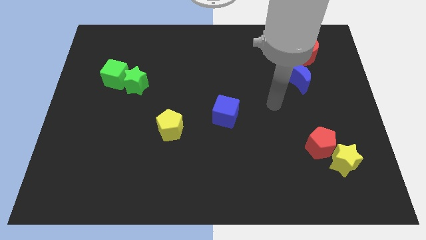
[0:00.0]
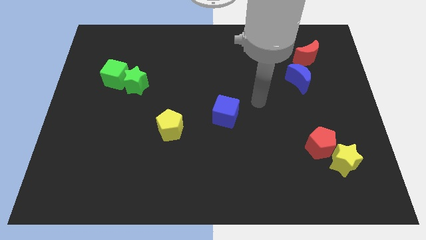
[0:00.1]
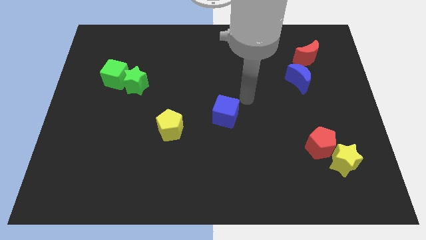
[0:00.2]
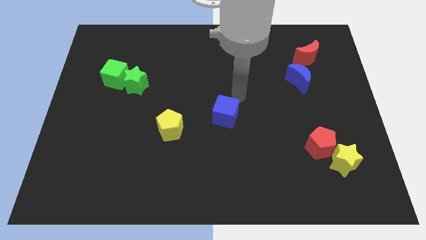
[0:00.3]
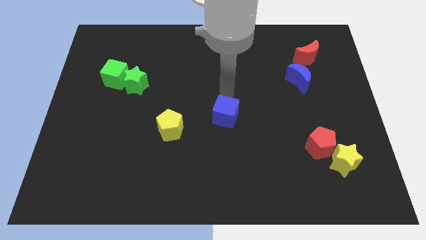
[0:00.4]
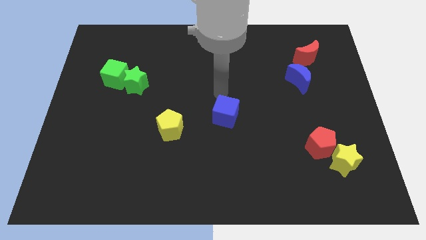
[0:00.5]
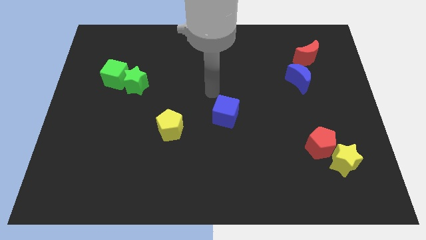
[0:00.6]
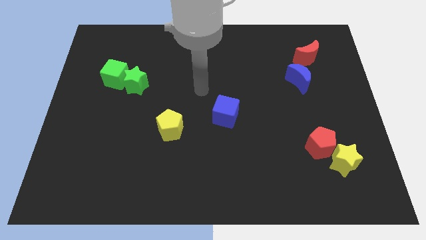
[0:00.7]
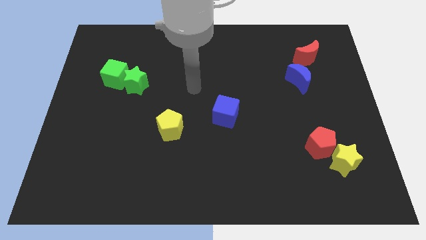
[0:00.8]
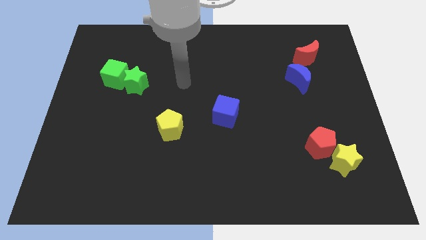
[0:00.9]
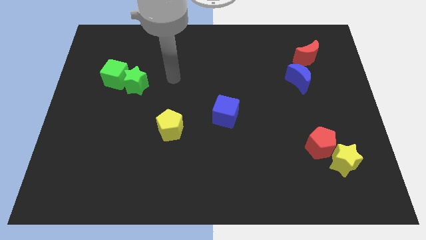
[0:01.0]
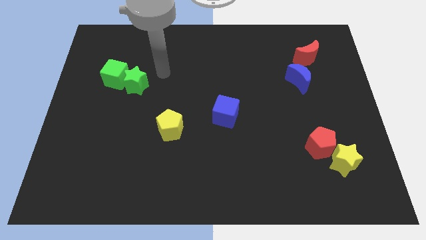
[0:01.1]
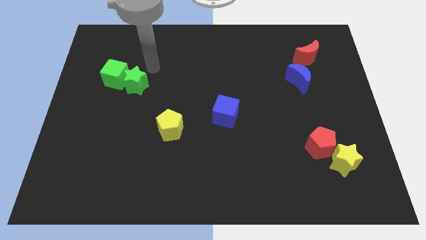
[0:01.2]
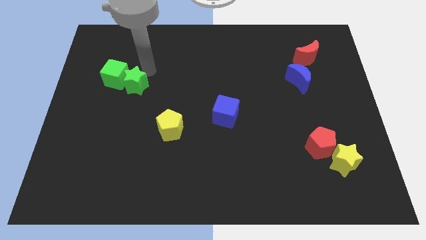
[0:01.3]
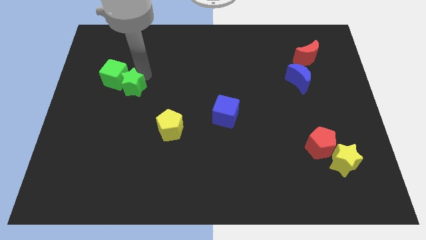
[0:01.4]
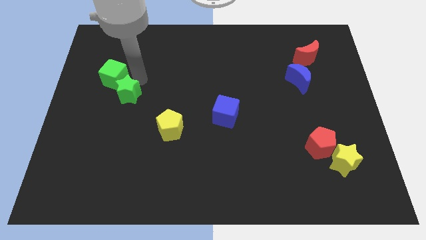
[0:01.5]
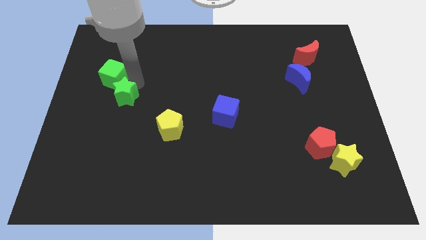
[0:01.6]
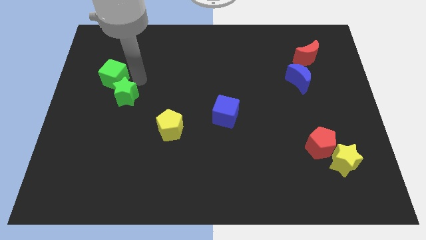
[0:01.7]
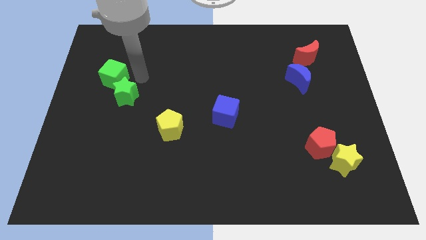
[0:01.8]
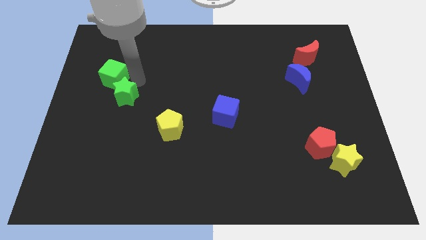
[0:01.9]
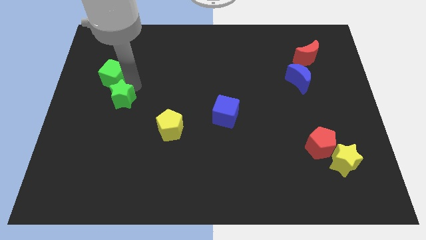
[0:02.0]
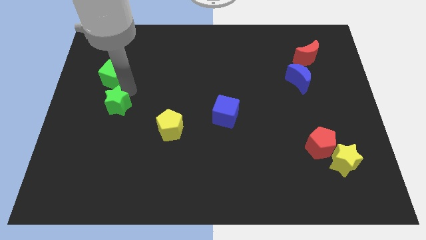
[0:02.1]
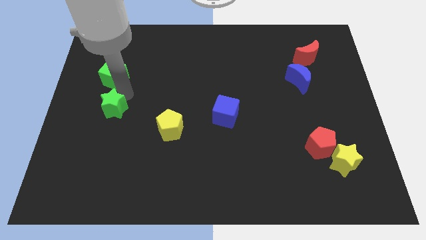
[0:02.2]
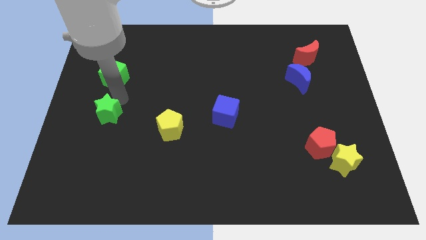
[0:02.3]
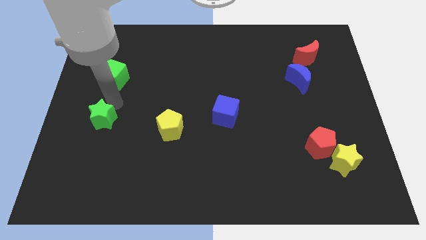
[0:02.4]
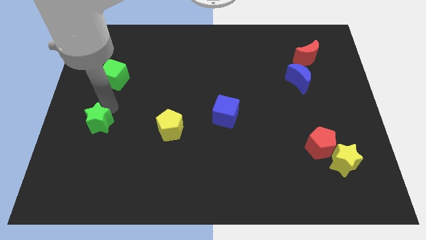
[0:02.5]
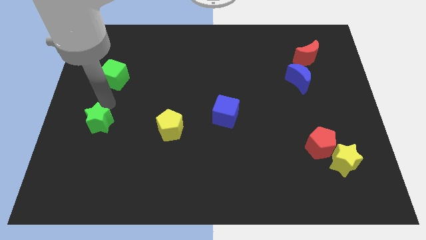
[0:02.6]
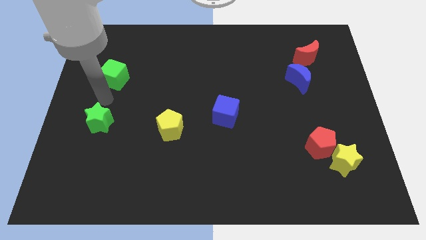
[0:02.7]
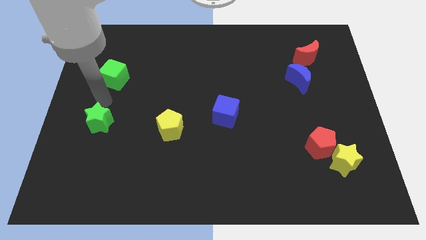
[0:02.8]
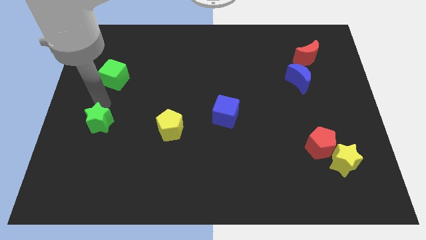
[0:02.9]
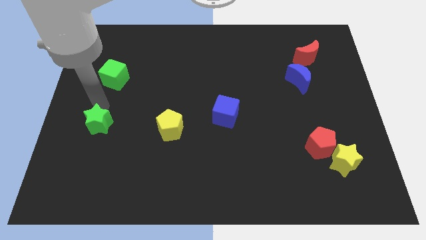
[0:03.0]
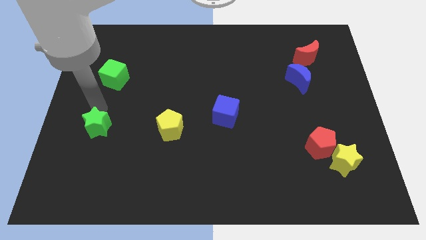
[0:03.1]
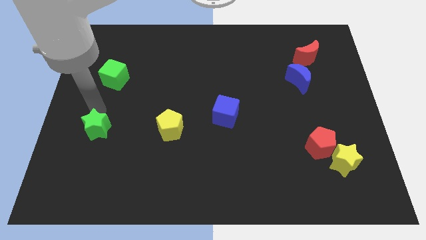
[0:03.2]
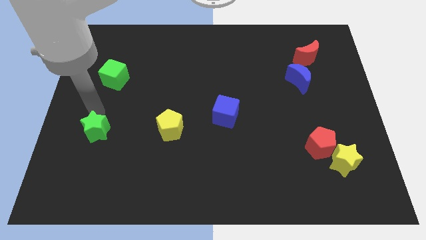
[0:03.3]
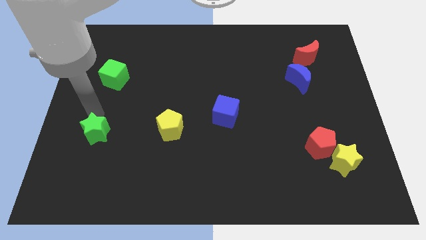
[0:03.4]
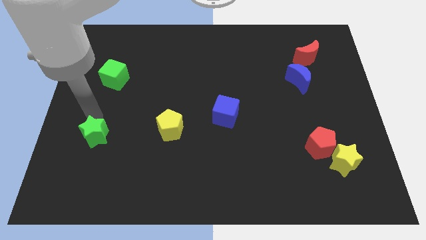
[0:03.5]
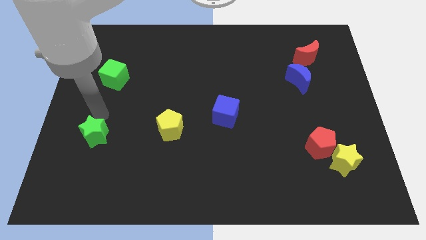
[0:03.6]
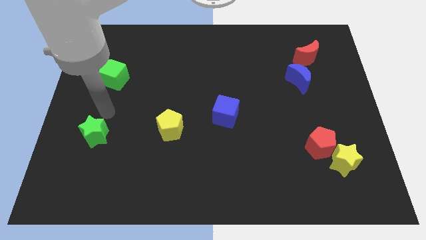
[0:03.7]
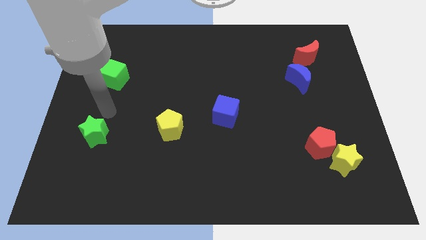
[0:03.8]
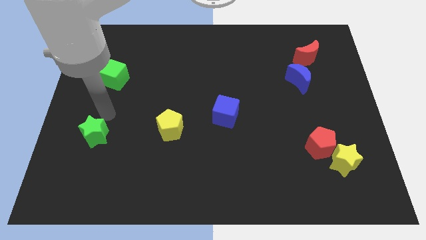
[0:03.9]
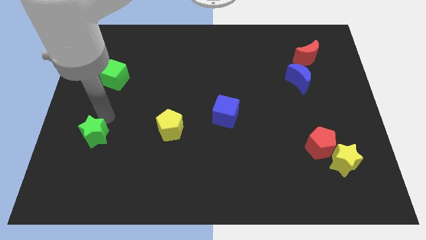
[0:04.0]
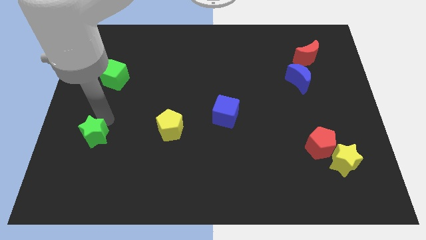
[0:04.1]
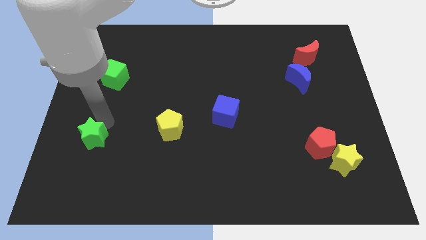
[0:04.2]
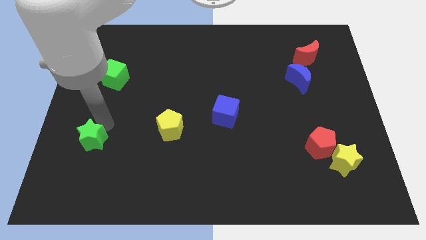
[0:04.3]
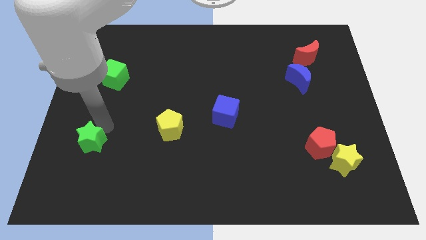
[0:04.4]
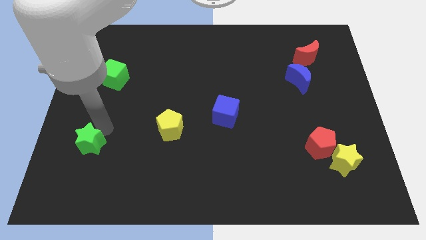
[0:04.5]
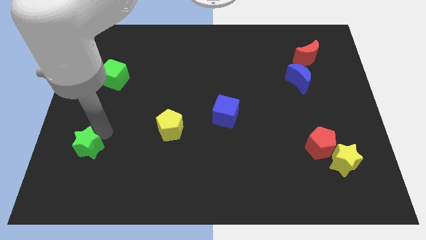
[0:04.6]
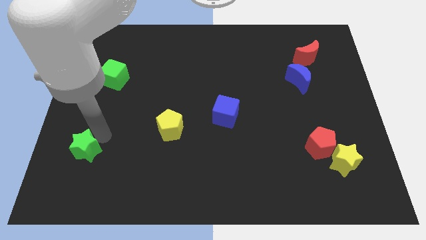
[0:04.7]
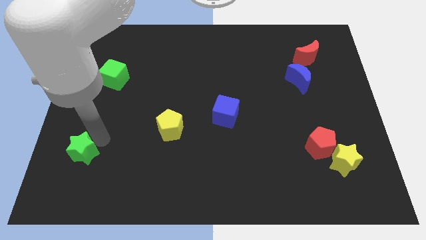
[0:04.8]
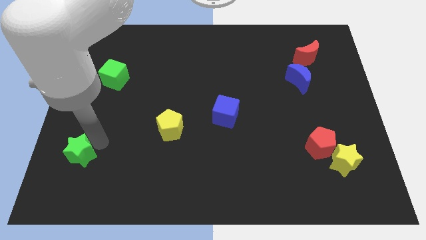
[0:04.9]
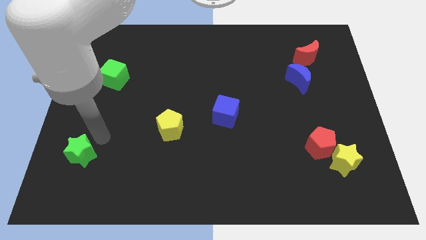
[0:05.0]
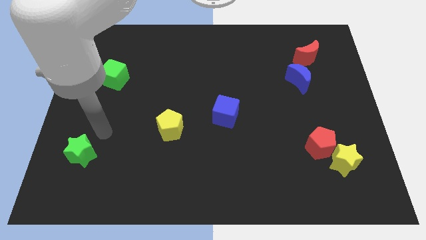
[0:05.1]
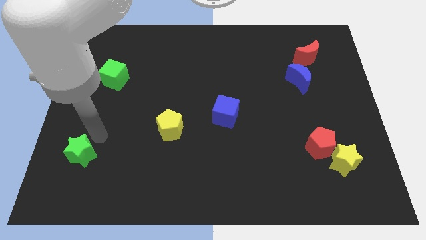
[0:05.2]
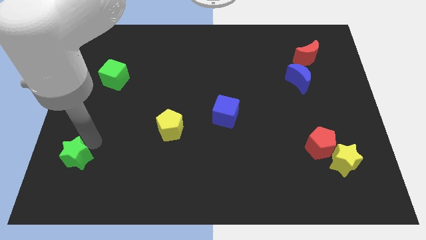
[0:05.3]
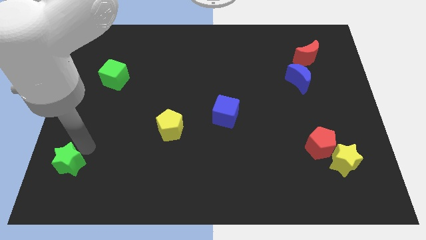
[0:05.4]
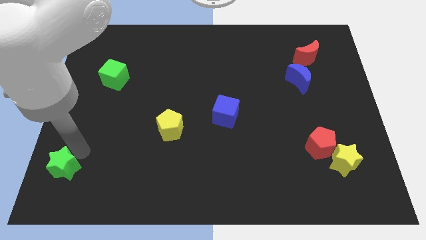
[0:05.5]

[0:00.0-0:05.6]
push the green star to the bottom left of the board

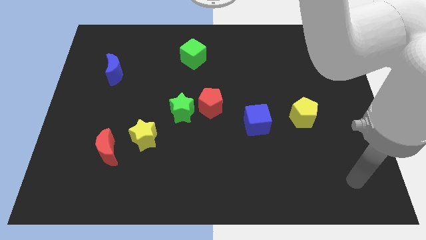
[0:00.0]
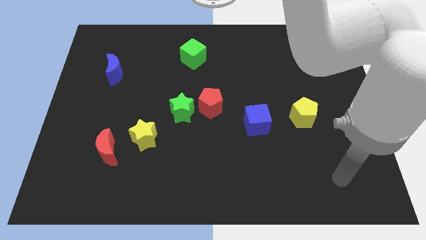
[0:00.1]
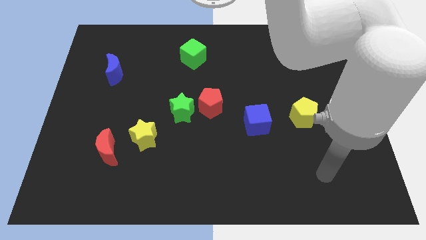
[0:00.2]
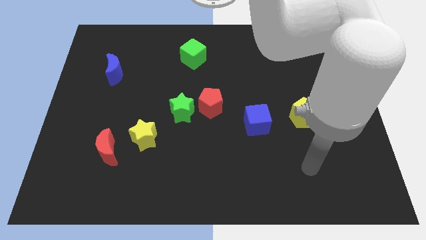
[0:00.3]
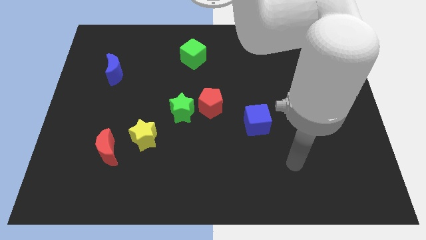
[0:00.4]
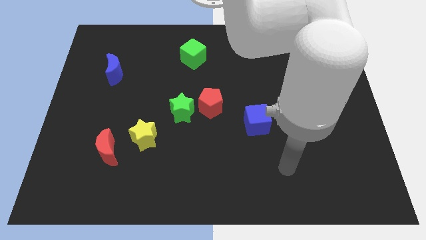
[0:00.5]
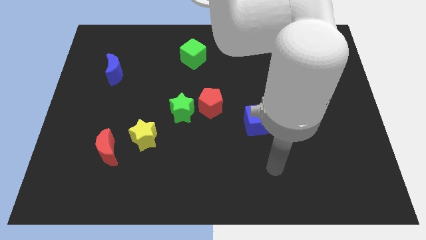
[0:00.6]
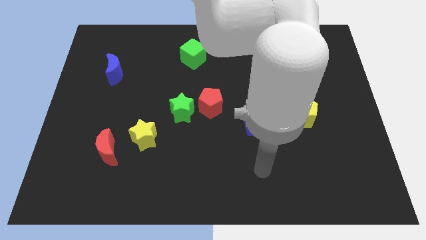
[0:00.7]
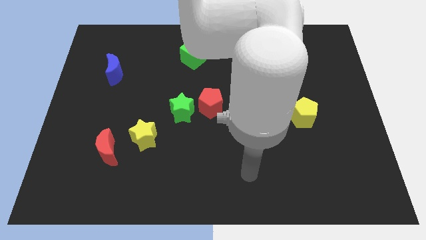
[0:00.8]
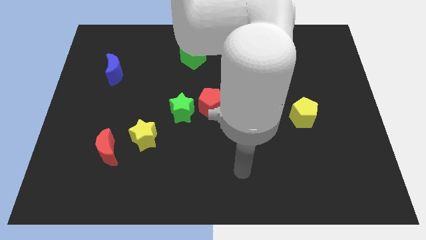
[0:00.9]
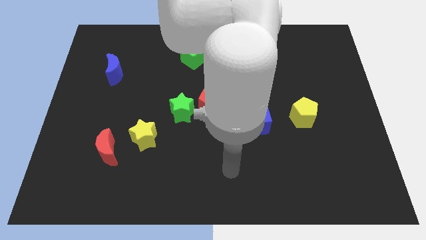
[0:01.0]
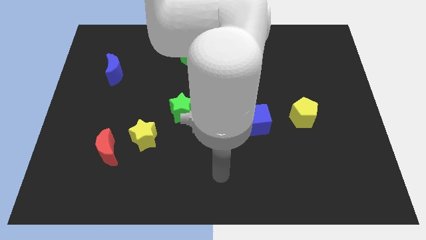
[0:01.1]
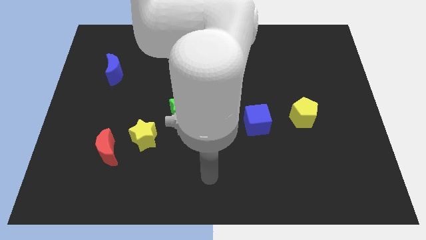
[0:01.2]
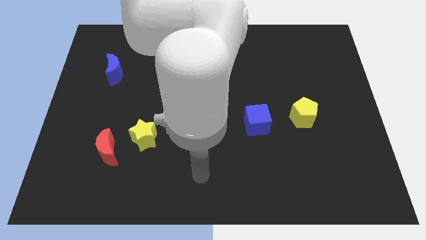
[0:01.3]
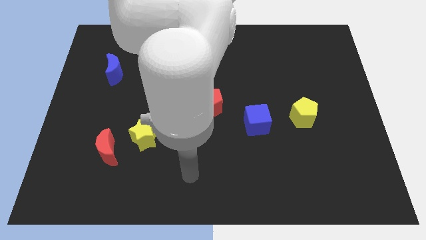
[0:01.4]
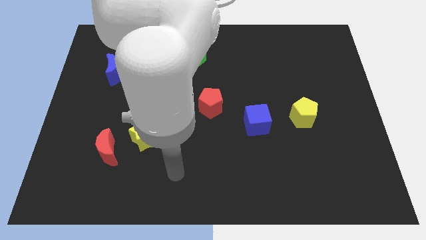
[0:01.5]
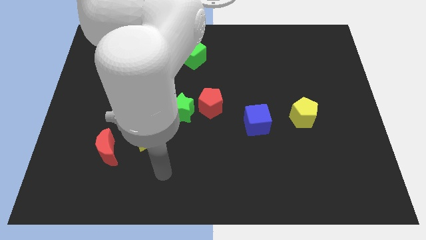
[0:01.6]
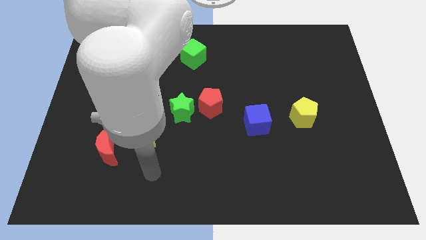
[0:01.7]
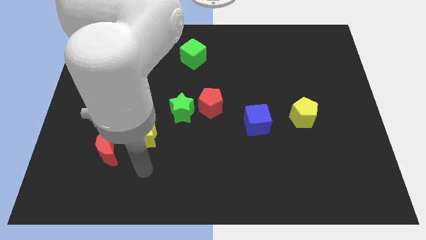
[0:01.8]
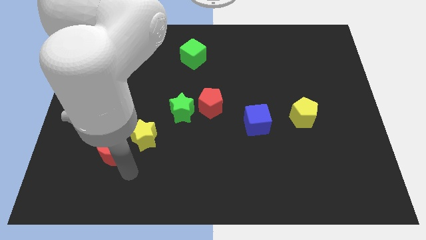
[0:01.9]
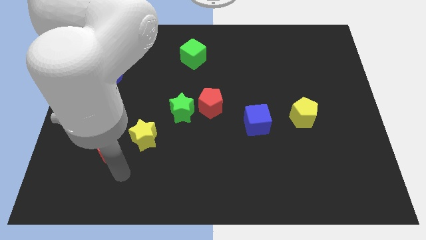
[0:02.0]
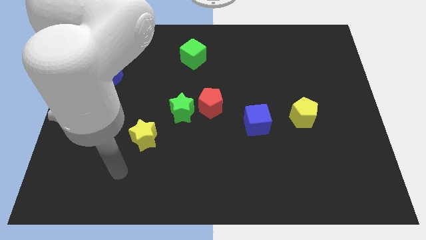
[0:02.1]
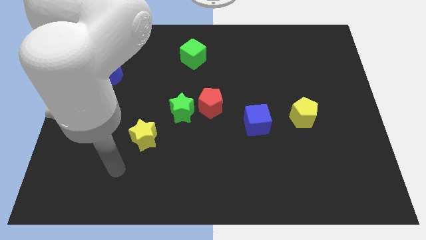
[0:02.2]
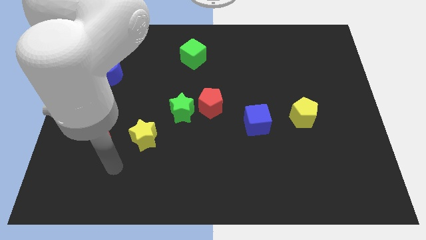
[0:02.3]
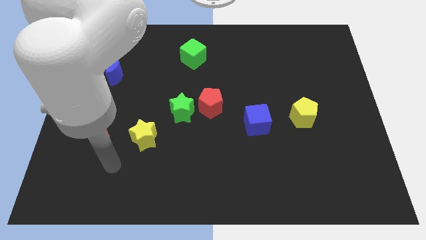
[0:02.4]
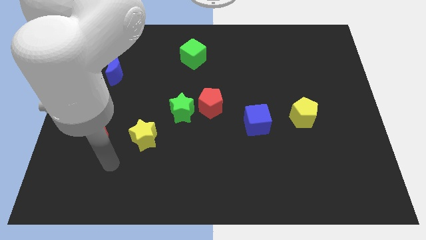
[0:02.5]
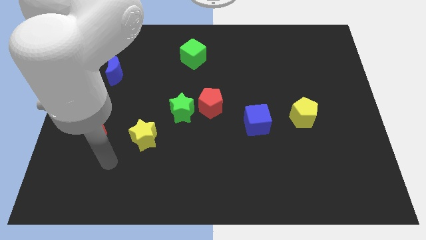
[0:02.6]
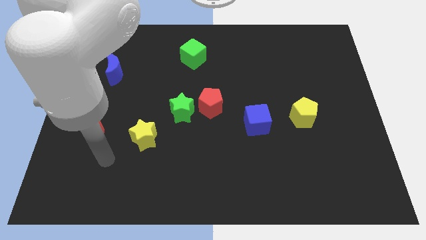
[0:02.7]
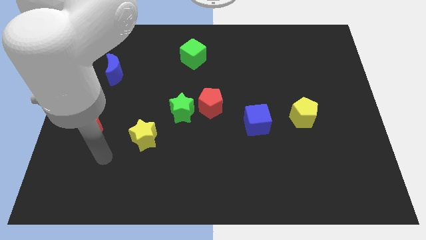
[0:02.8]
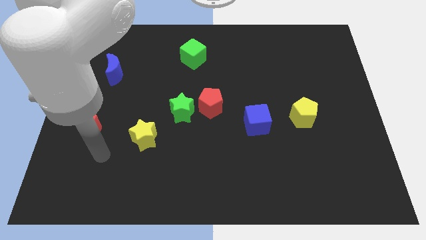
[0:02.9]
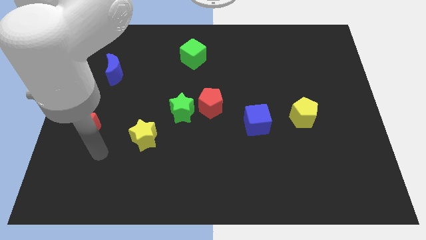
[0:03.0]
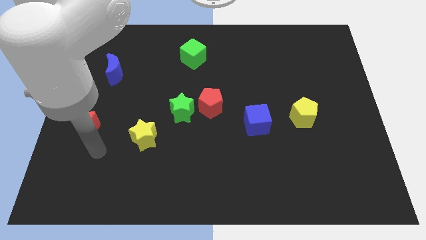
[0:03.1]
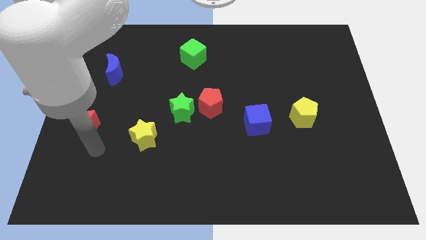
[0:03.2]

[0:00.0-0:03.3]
slide the red moon to the left side of the board
